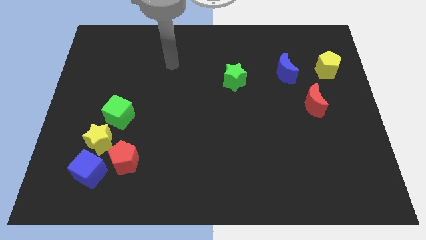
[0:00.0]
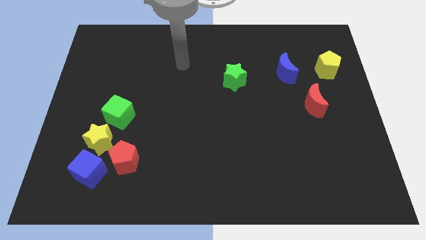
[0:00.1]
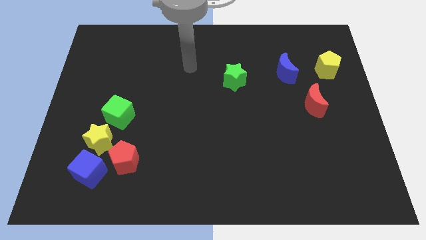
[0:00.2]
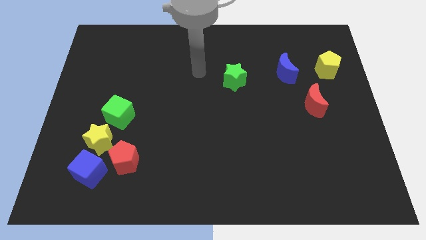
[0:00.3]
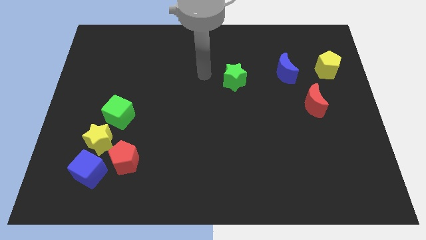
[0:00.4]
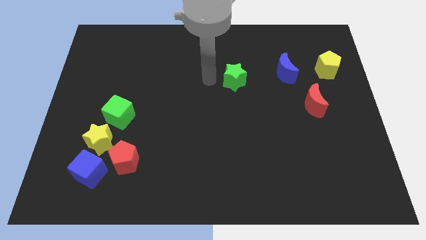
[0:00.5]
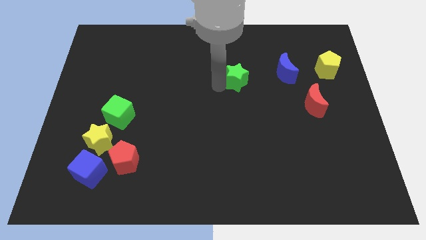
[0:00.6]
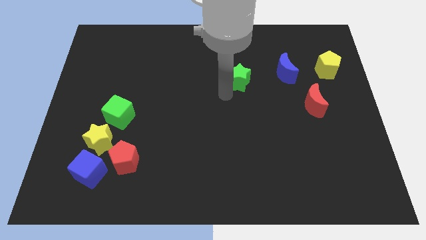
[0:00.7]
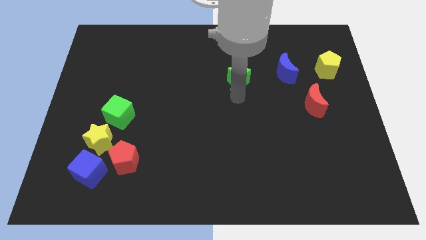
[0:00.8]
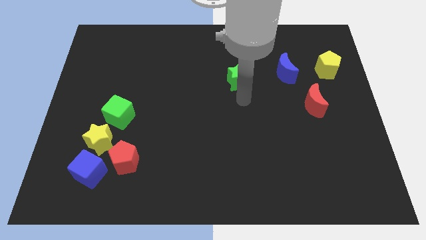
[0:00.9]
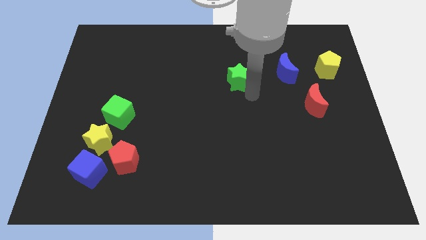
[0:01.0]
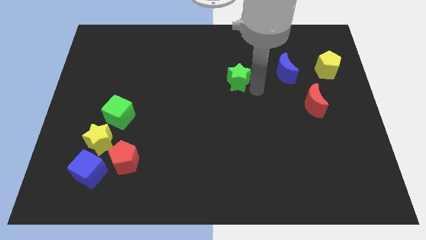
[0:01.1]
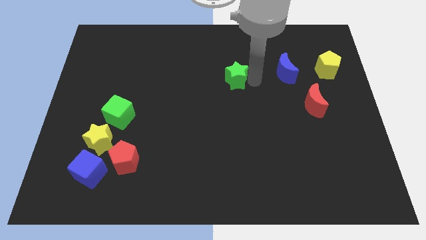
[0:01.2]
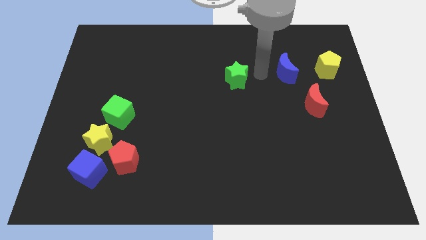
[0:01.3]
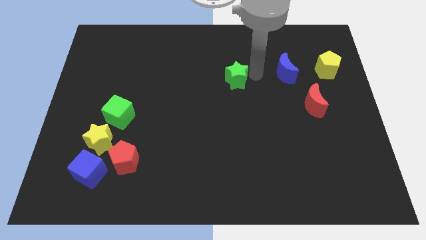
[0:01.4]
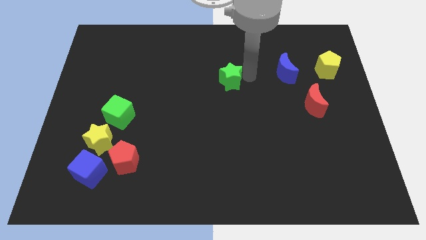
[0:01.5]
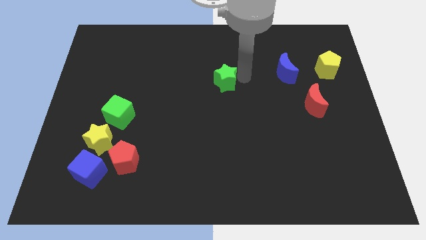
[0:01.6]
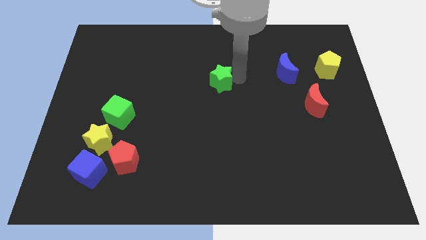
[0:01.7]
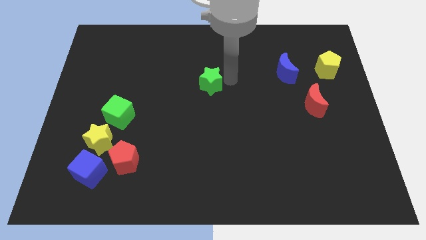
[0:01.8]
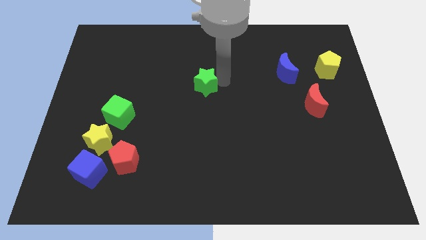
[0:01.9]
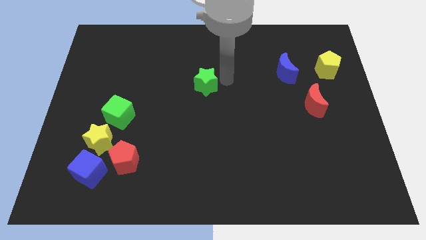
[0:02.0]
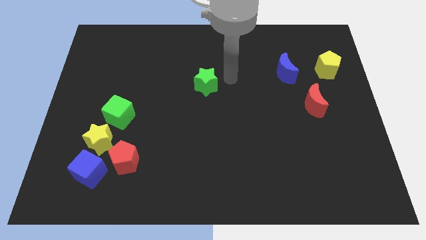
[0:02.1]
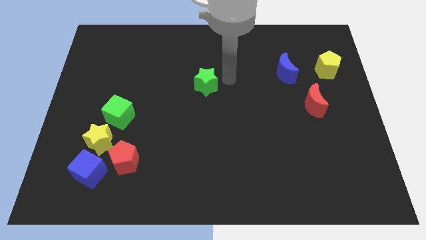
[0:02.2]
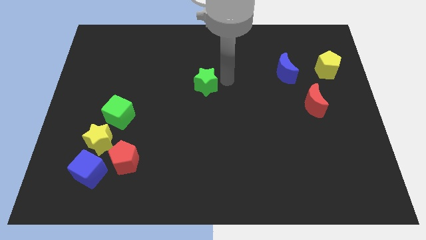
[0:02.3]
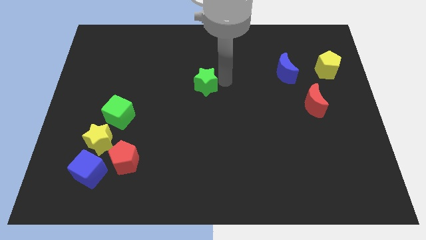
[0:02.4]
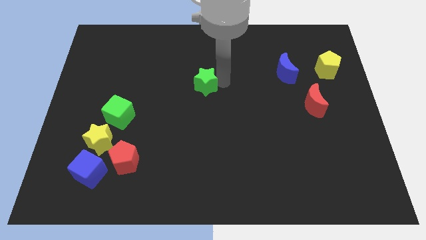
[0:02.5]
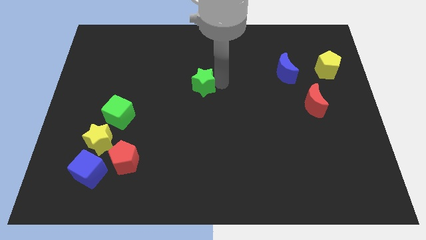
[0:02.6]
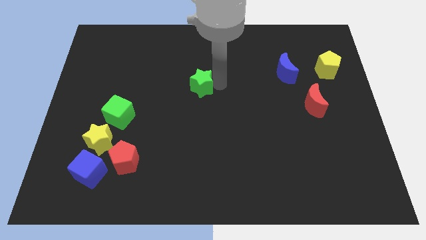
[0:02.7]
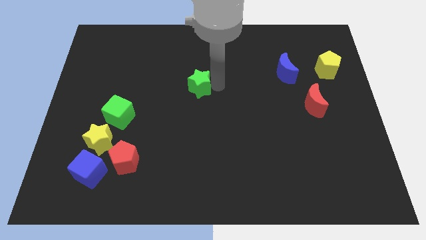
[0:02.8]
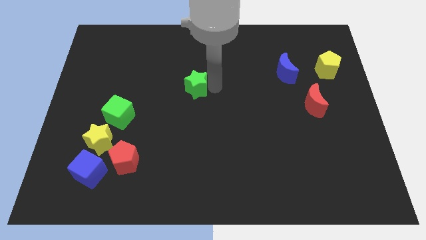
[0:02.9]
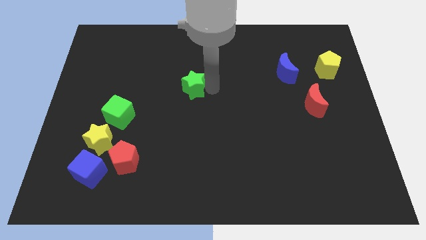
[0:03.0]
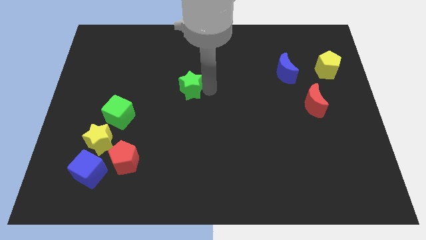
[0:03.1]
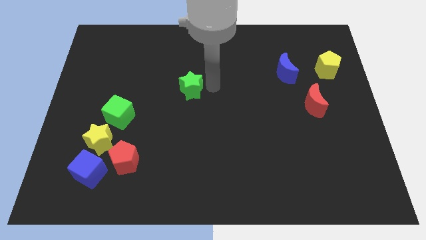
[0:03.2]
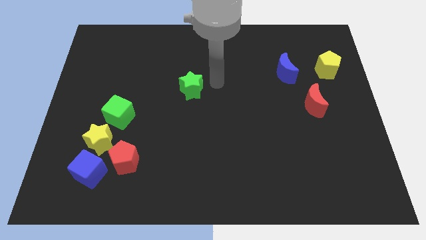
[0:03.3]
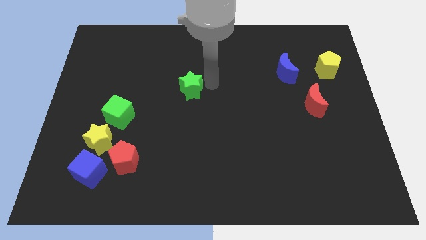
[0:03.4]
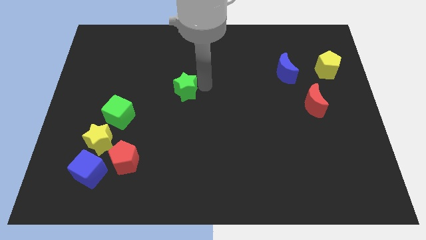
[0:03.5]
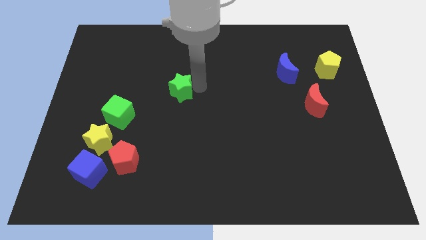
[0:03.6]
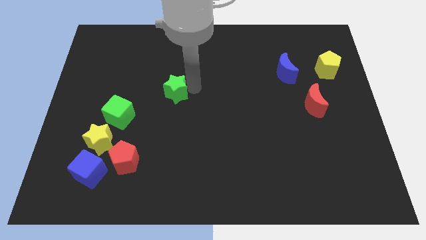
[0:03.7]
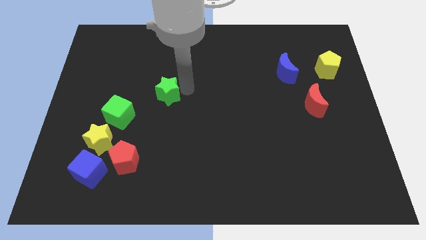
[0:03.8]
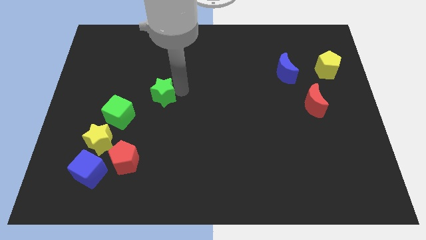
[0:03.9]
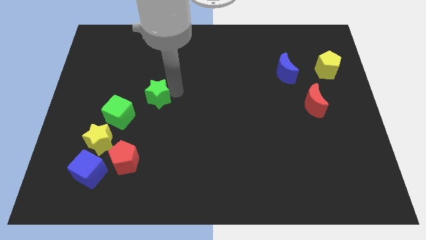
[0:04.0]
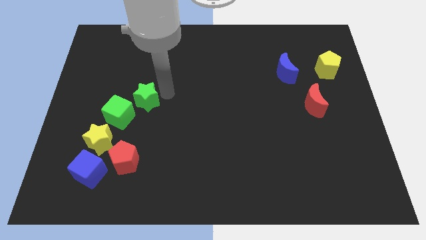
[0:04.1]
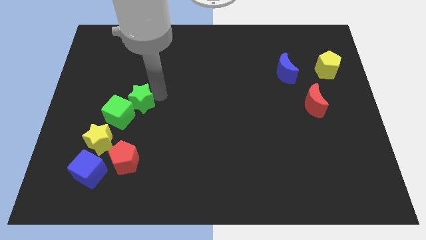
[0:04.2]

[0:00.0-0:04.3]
slide the green star next to the green cube

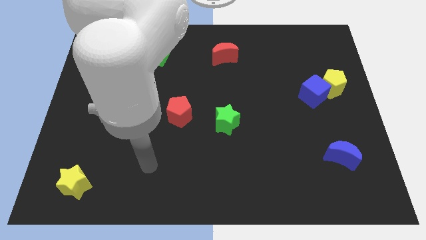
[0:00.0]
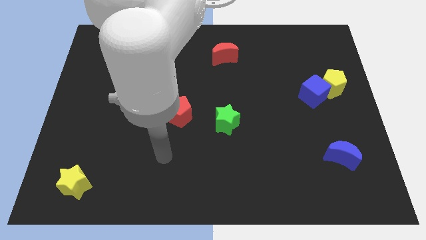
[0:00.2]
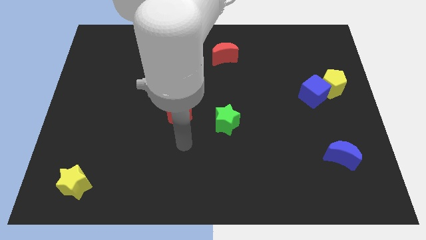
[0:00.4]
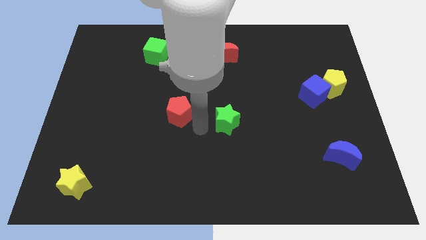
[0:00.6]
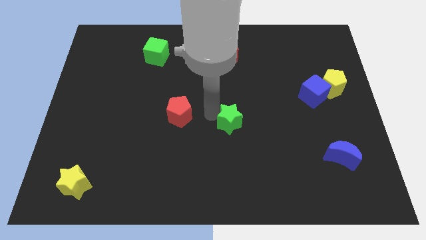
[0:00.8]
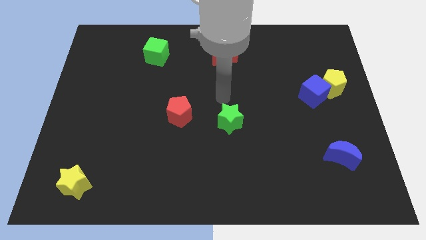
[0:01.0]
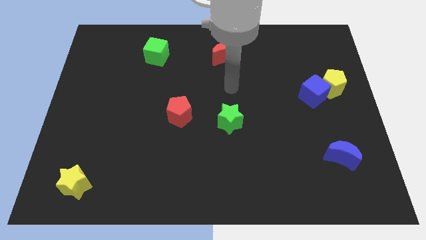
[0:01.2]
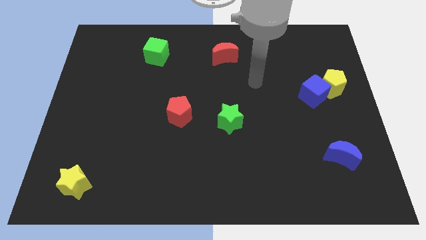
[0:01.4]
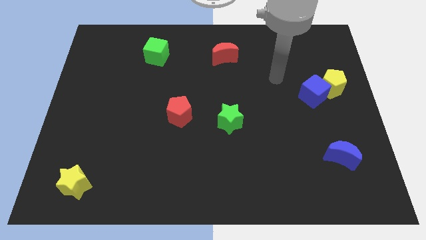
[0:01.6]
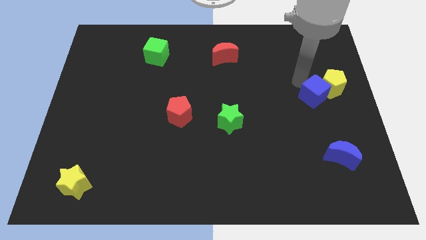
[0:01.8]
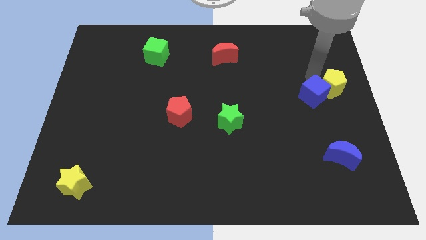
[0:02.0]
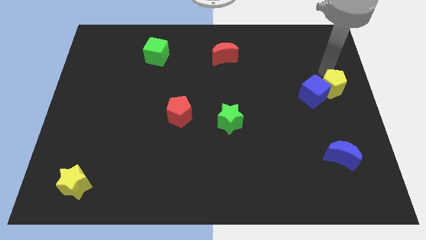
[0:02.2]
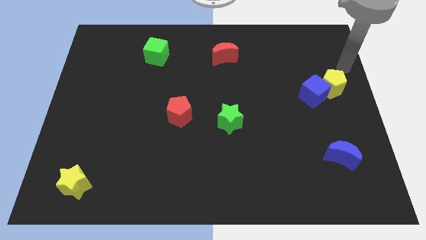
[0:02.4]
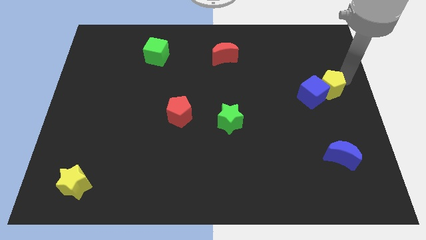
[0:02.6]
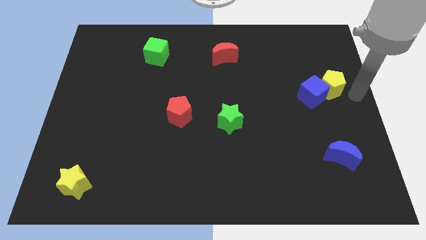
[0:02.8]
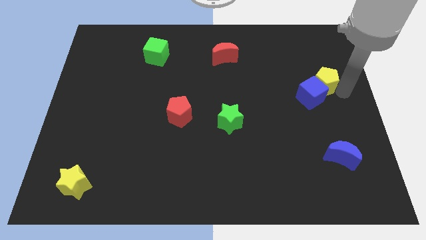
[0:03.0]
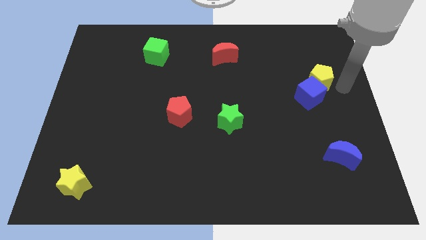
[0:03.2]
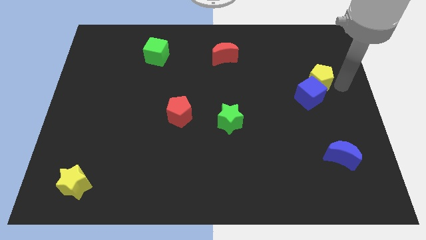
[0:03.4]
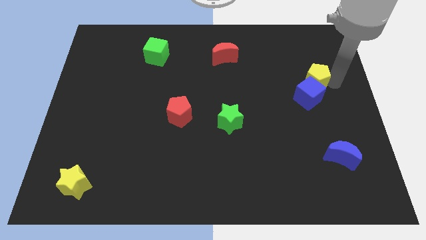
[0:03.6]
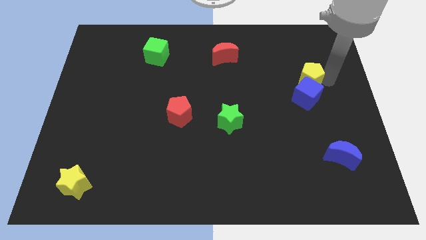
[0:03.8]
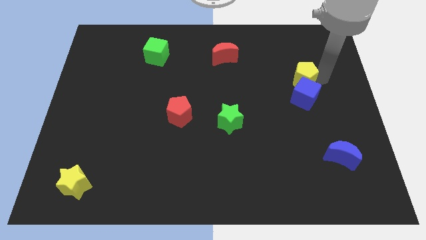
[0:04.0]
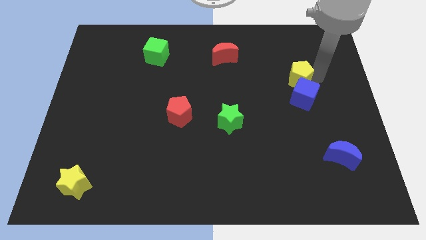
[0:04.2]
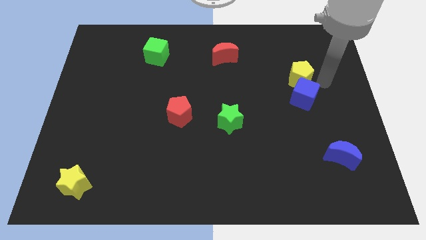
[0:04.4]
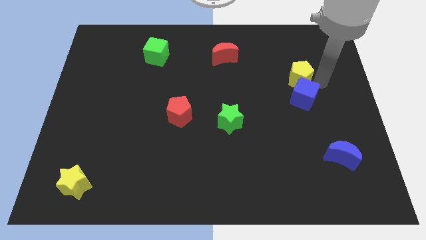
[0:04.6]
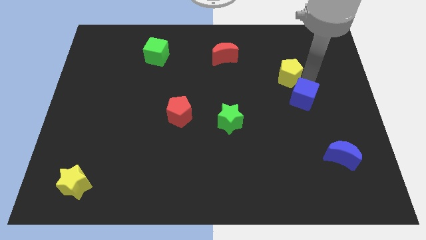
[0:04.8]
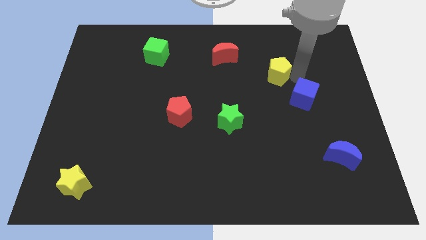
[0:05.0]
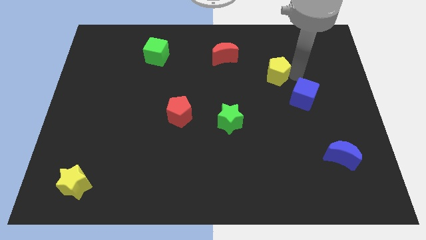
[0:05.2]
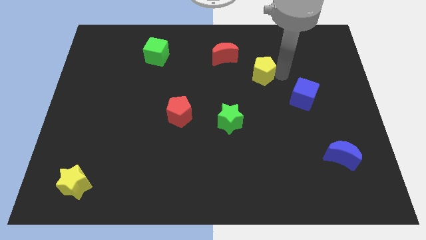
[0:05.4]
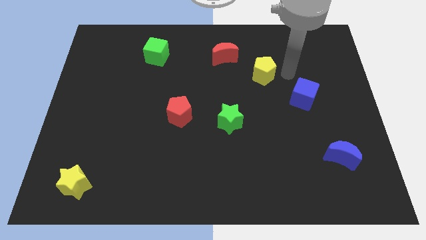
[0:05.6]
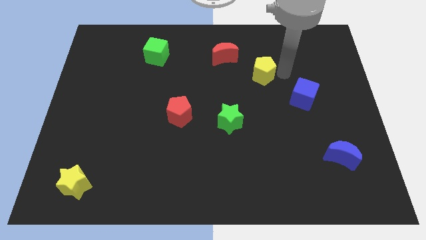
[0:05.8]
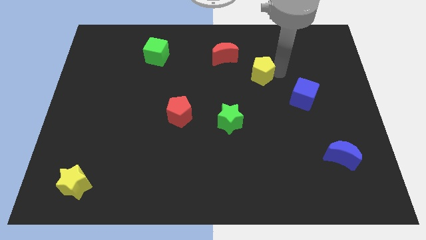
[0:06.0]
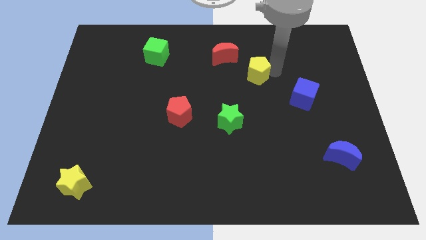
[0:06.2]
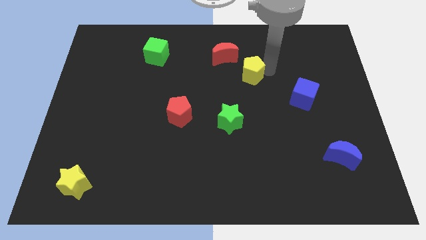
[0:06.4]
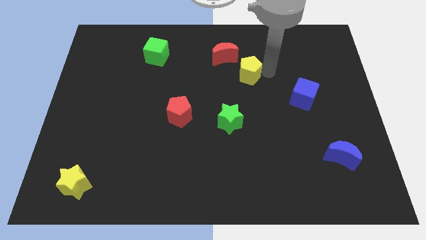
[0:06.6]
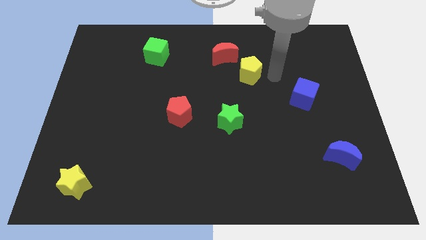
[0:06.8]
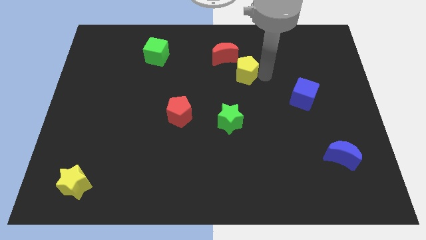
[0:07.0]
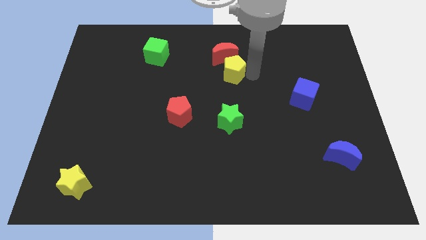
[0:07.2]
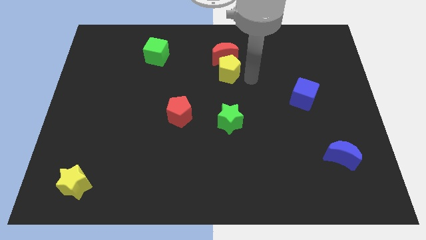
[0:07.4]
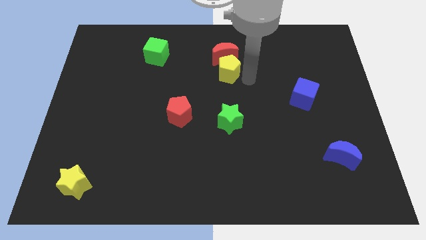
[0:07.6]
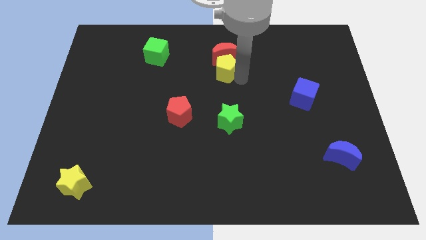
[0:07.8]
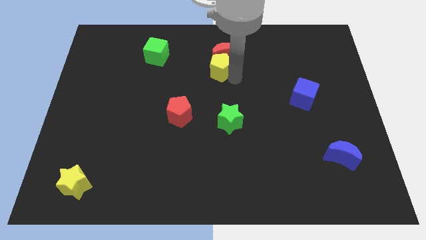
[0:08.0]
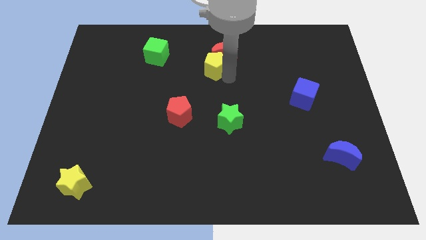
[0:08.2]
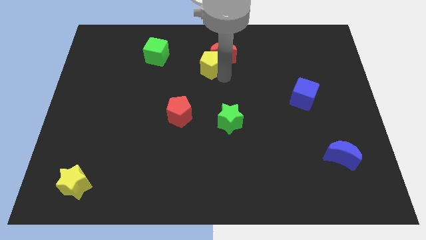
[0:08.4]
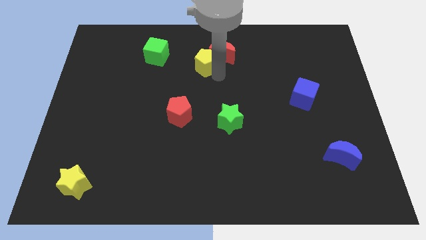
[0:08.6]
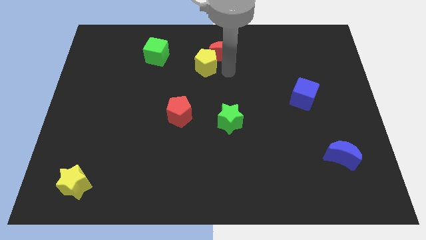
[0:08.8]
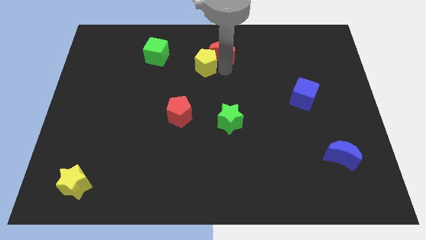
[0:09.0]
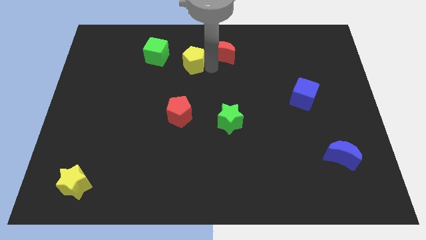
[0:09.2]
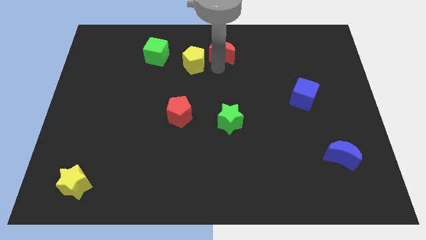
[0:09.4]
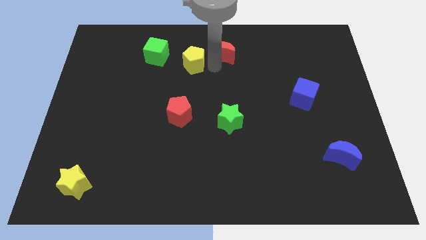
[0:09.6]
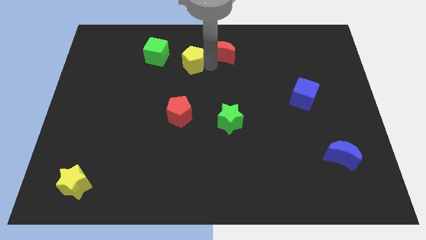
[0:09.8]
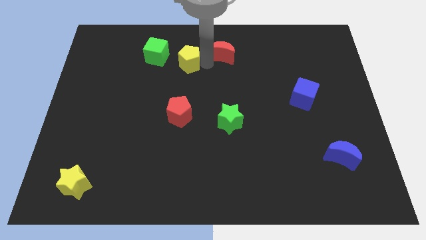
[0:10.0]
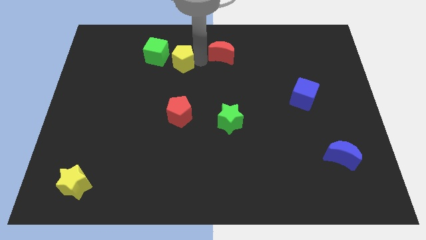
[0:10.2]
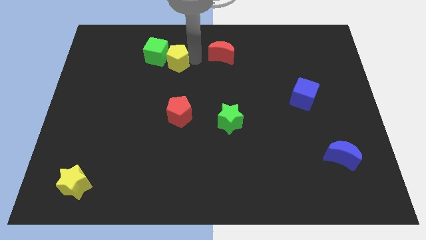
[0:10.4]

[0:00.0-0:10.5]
move the yellow pentagon next to the green cube
